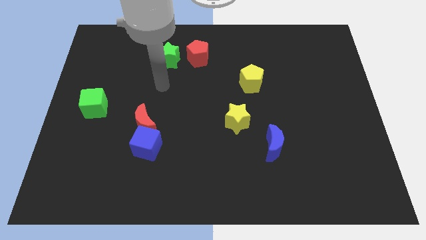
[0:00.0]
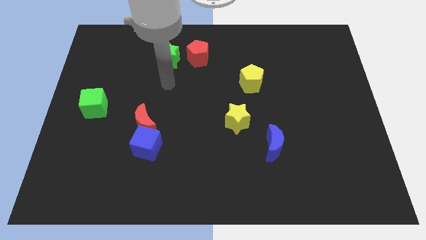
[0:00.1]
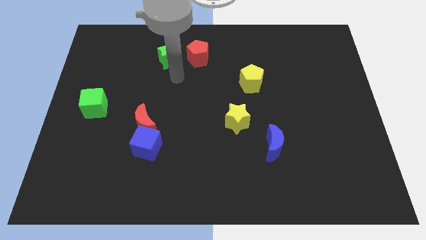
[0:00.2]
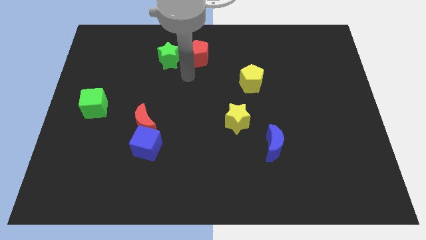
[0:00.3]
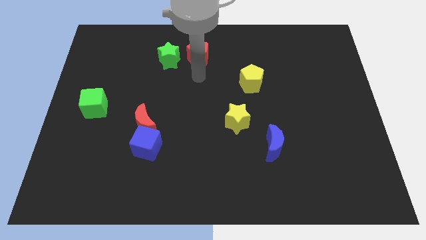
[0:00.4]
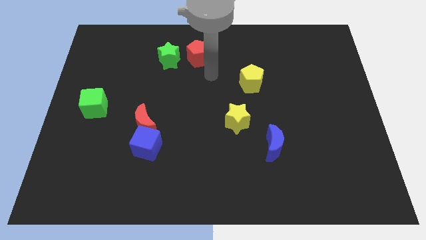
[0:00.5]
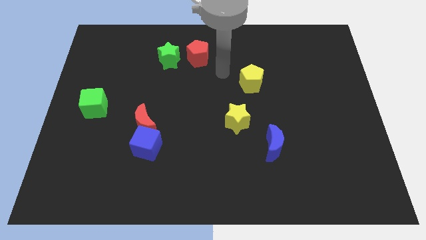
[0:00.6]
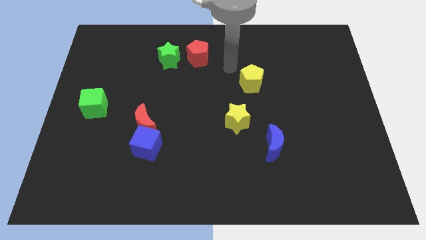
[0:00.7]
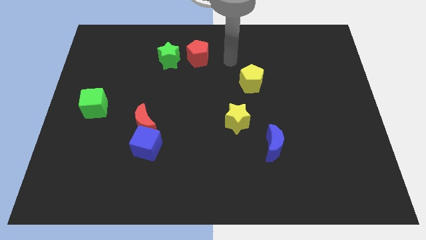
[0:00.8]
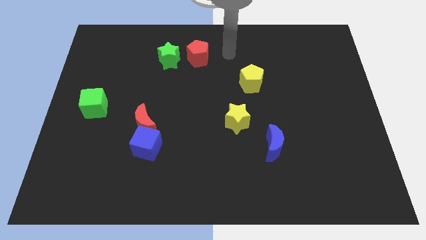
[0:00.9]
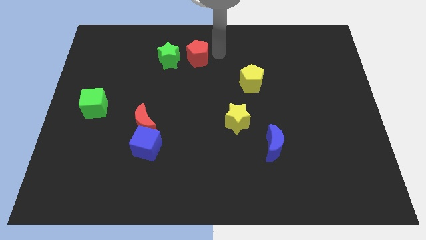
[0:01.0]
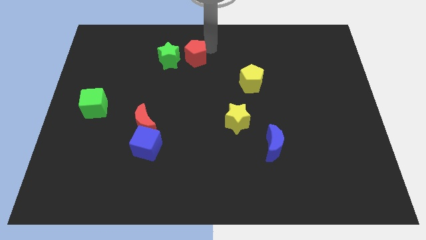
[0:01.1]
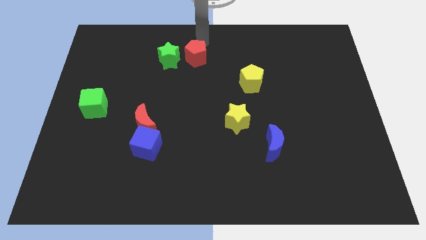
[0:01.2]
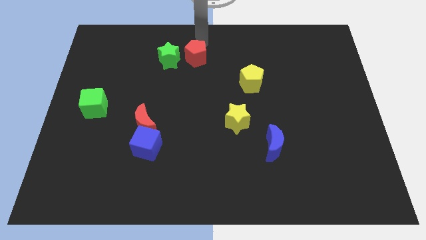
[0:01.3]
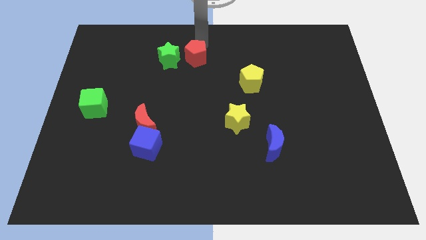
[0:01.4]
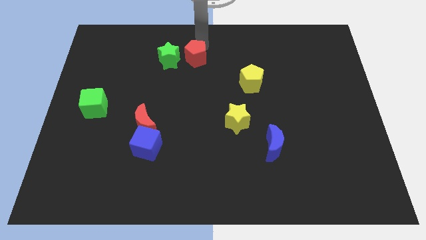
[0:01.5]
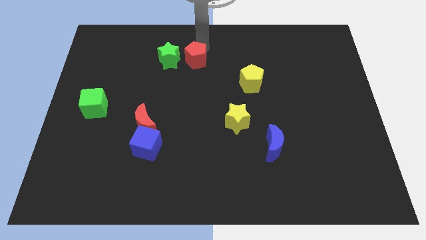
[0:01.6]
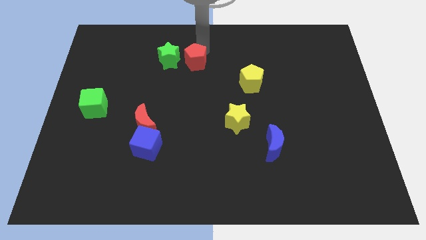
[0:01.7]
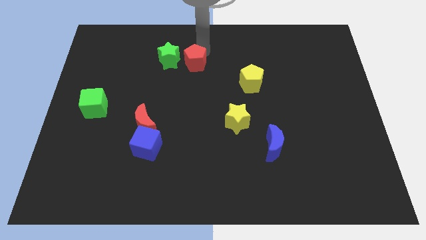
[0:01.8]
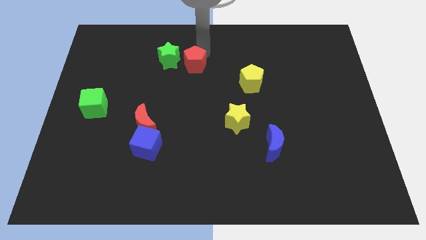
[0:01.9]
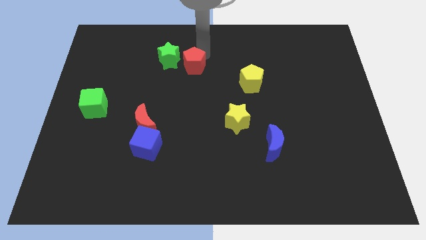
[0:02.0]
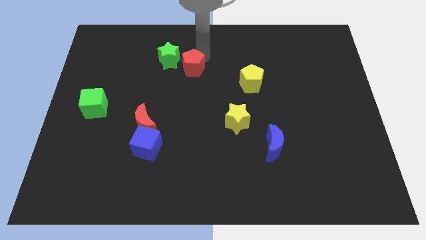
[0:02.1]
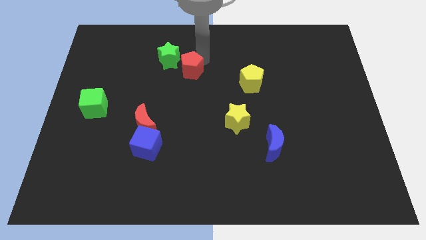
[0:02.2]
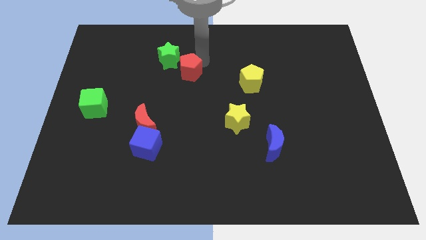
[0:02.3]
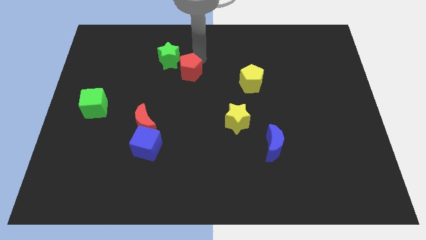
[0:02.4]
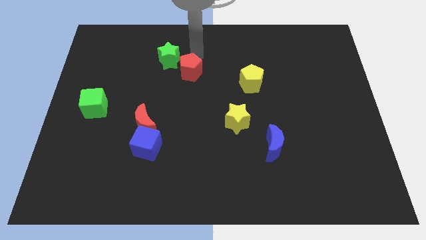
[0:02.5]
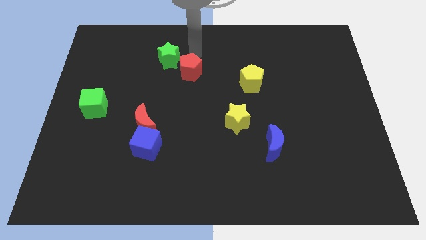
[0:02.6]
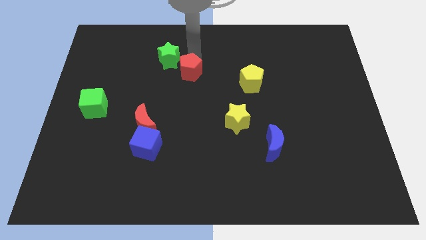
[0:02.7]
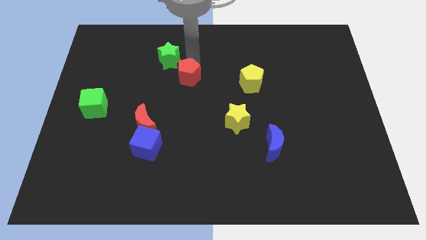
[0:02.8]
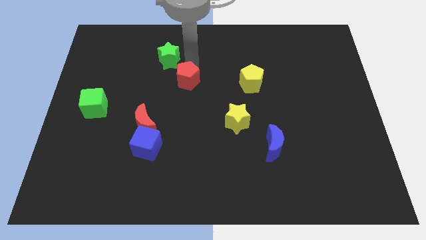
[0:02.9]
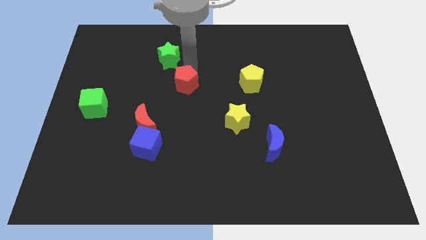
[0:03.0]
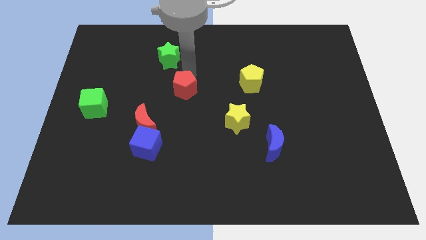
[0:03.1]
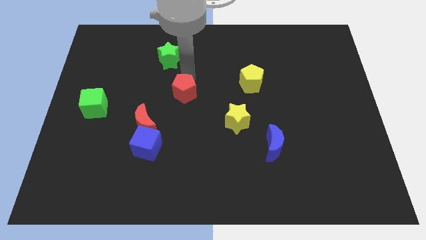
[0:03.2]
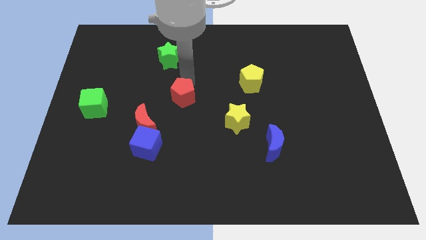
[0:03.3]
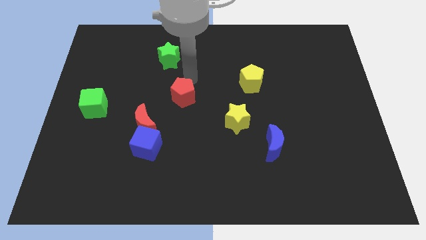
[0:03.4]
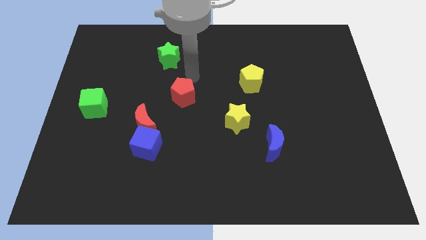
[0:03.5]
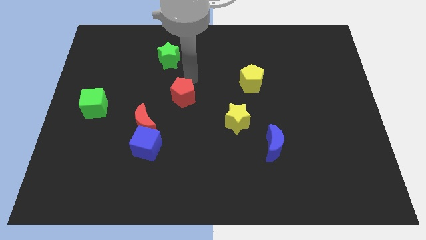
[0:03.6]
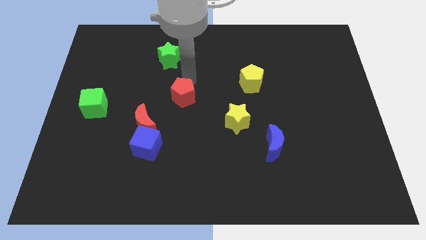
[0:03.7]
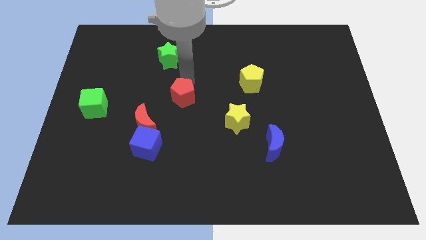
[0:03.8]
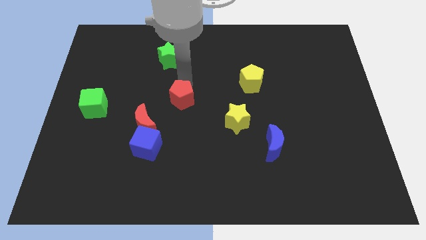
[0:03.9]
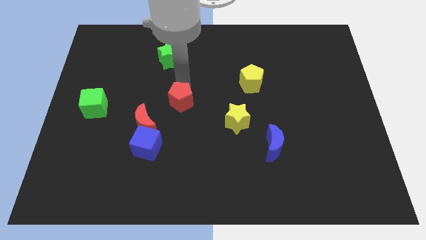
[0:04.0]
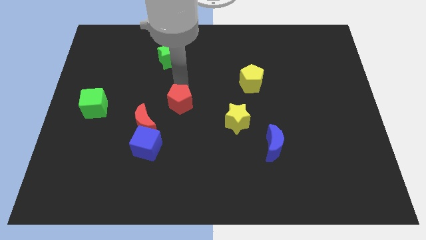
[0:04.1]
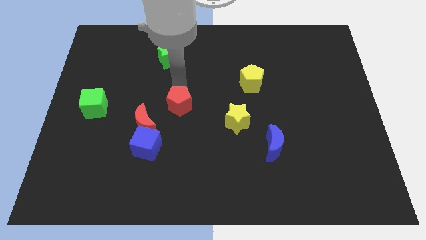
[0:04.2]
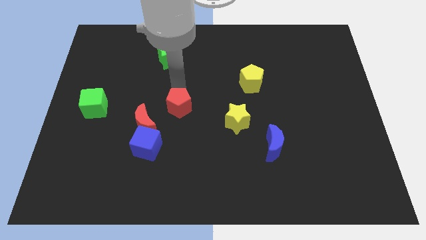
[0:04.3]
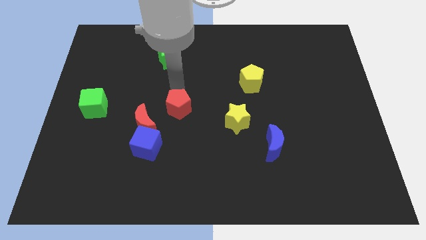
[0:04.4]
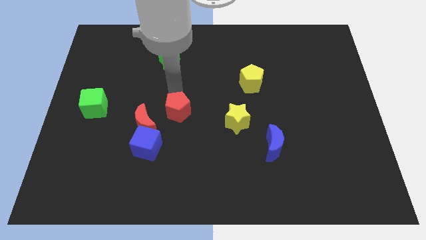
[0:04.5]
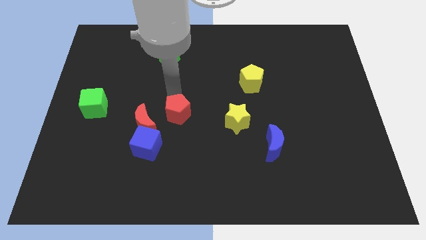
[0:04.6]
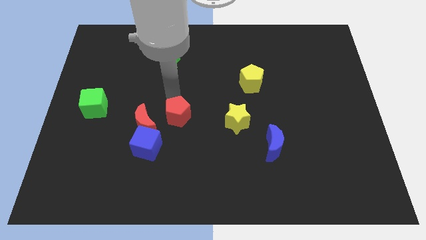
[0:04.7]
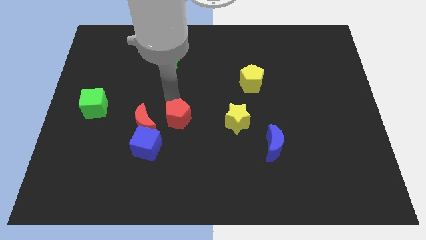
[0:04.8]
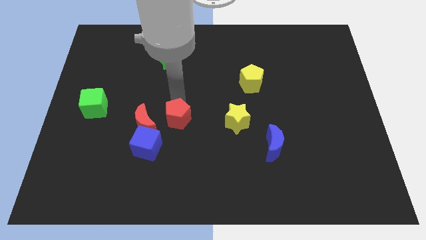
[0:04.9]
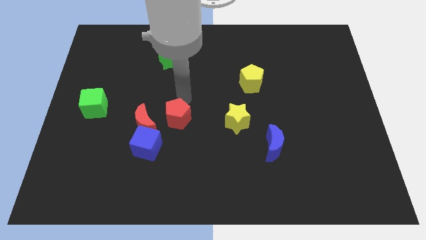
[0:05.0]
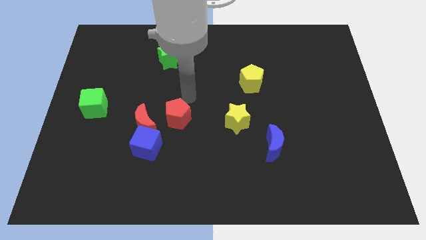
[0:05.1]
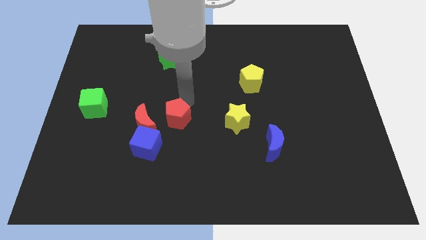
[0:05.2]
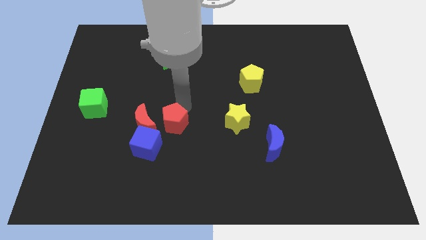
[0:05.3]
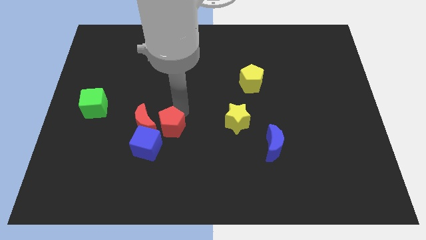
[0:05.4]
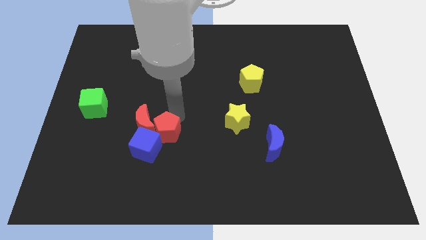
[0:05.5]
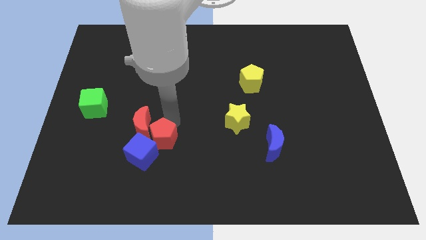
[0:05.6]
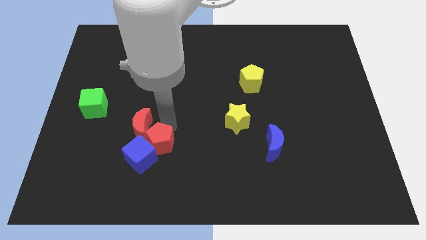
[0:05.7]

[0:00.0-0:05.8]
put the red pentagon to the bottom of the red moon

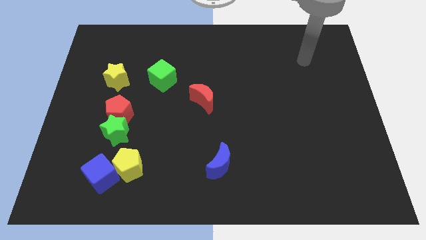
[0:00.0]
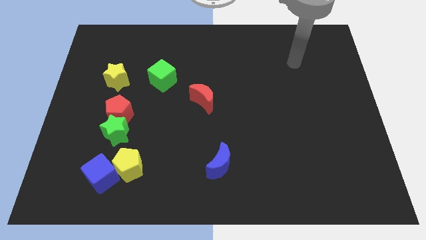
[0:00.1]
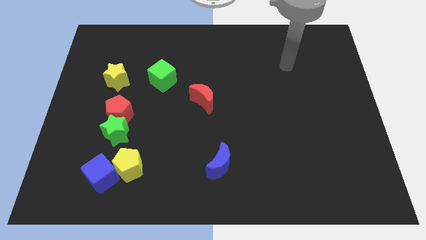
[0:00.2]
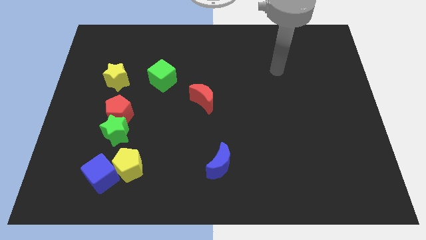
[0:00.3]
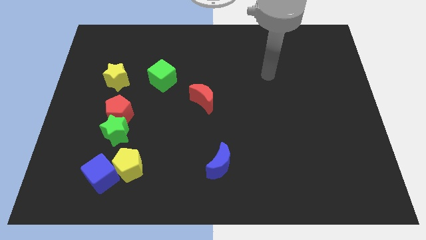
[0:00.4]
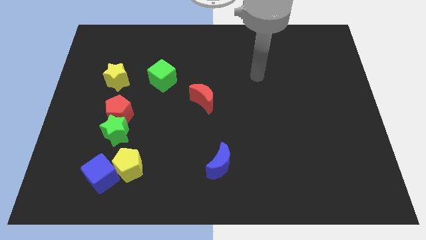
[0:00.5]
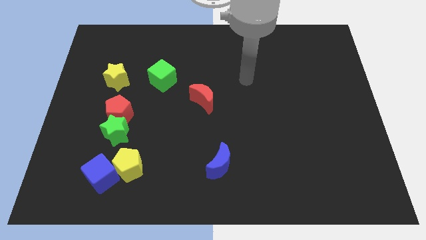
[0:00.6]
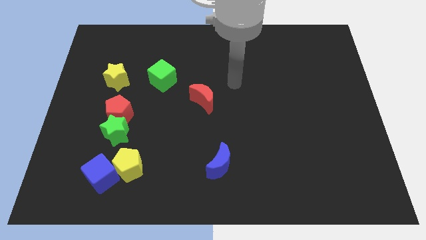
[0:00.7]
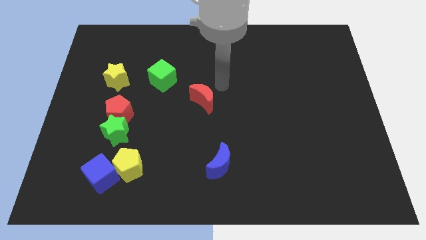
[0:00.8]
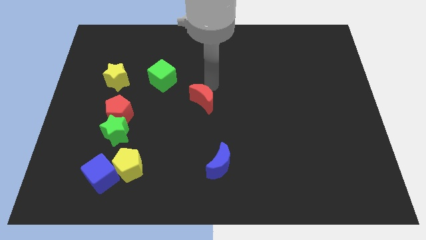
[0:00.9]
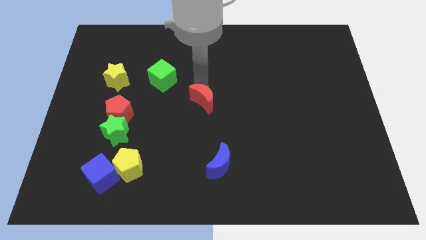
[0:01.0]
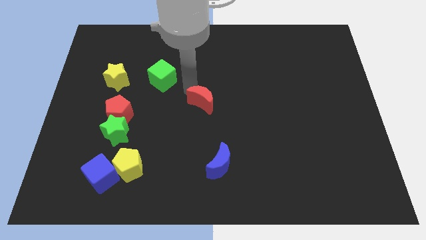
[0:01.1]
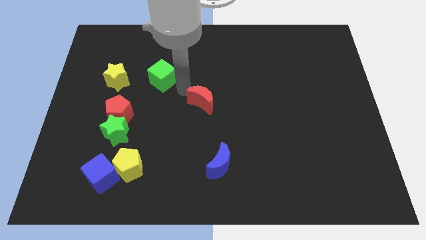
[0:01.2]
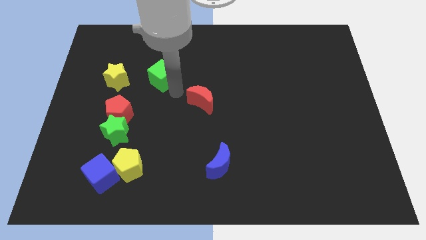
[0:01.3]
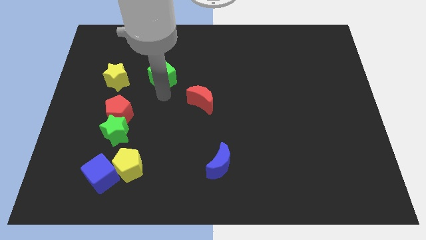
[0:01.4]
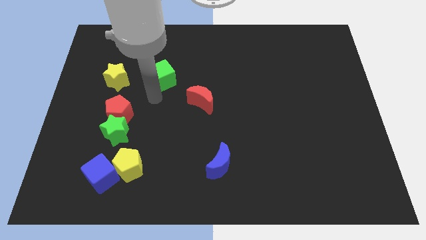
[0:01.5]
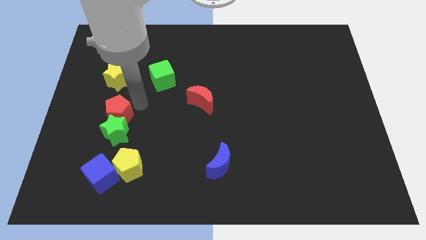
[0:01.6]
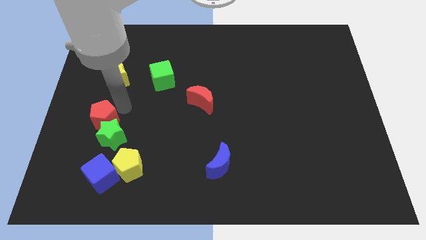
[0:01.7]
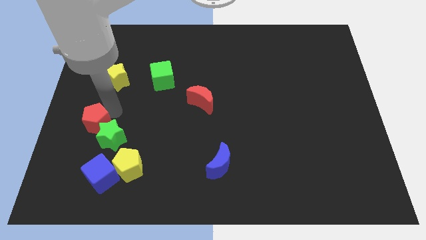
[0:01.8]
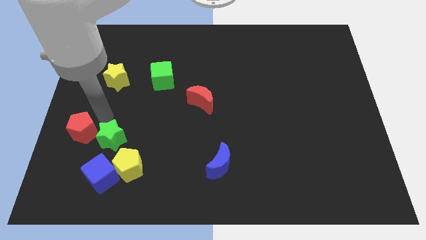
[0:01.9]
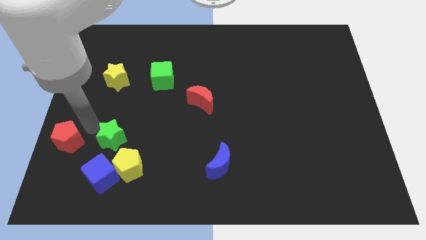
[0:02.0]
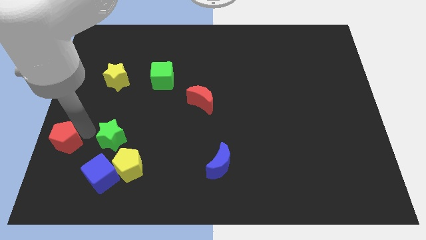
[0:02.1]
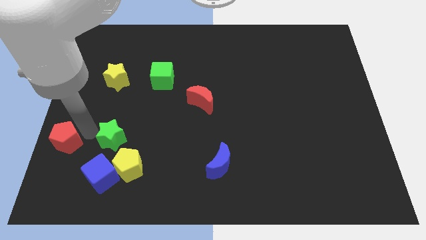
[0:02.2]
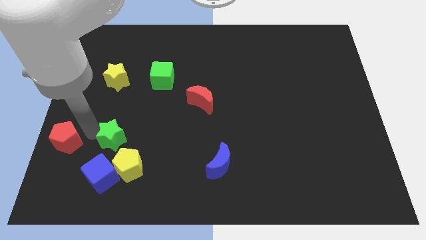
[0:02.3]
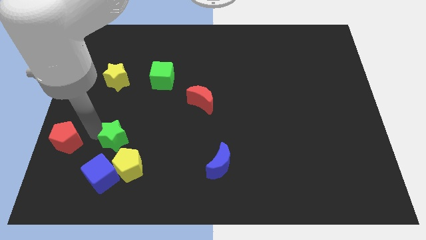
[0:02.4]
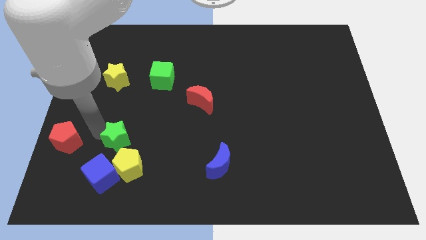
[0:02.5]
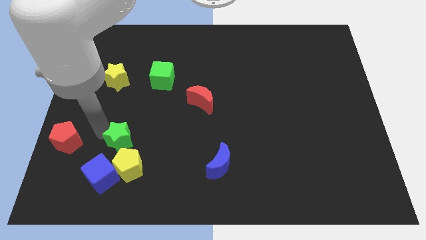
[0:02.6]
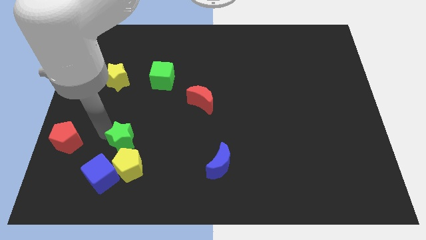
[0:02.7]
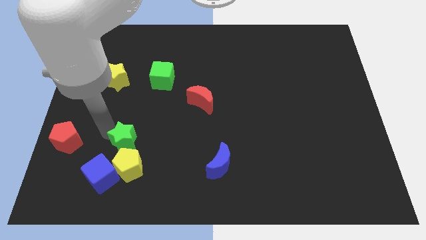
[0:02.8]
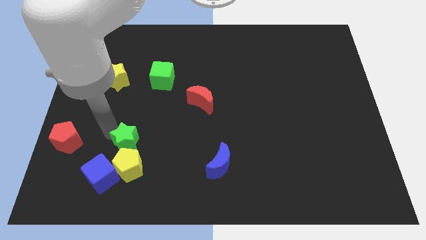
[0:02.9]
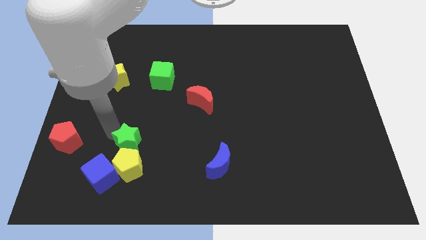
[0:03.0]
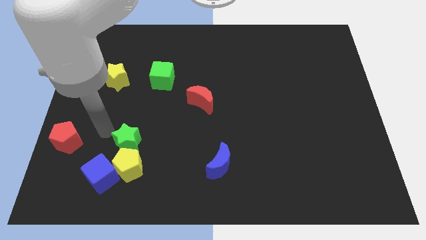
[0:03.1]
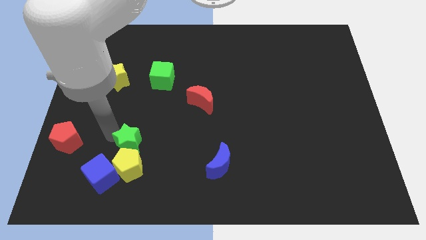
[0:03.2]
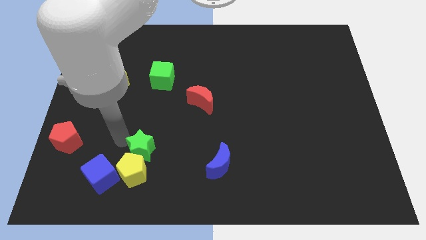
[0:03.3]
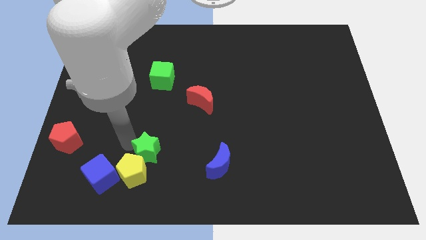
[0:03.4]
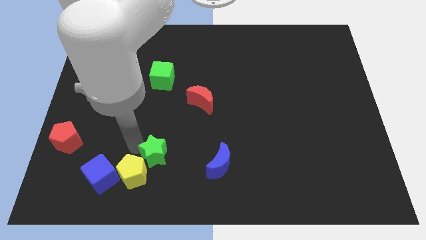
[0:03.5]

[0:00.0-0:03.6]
move the green star just left of the blue moon
